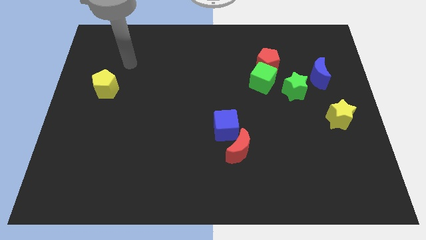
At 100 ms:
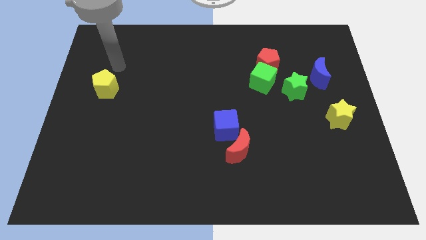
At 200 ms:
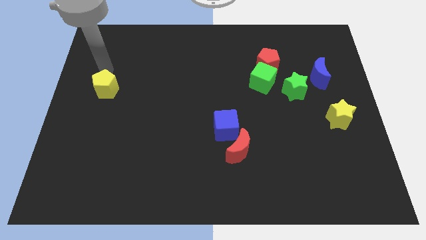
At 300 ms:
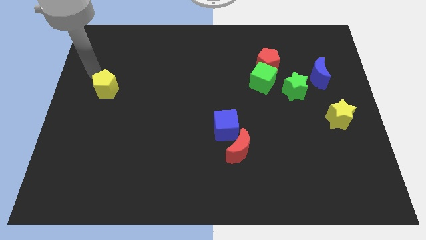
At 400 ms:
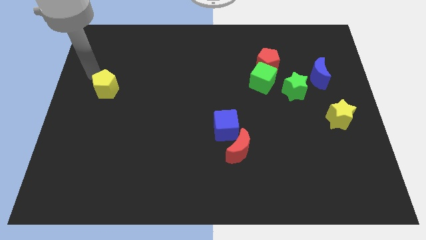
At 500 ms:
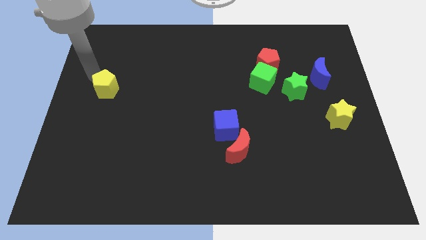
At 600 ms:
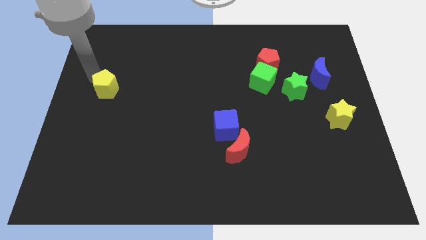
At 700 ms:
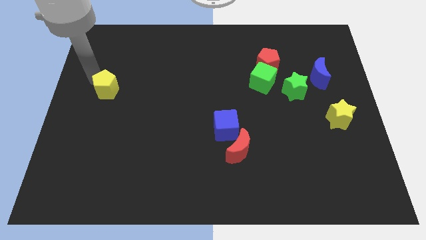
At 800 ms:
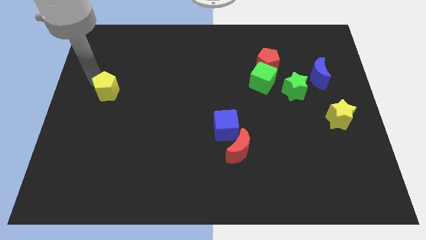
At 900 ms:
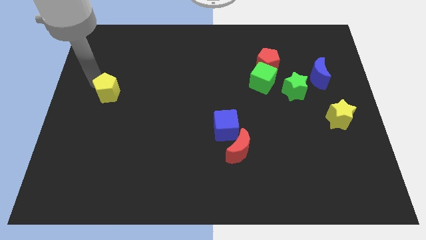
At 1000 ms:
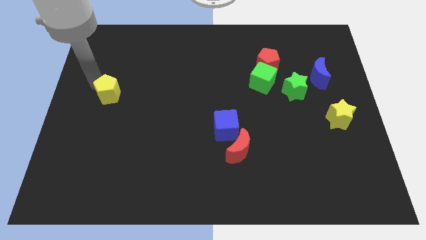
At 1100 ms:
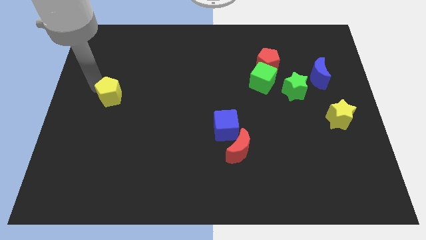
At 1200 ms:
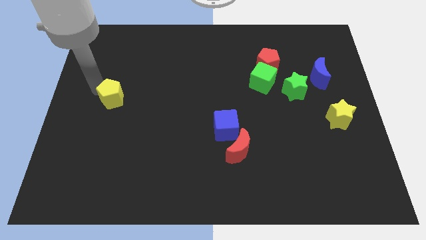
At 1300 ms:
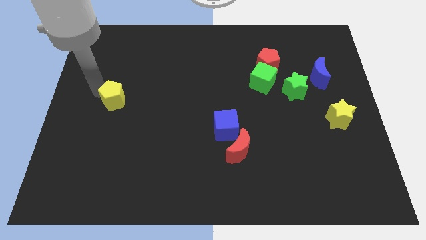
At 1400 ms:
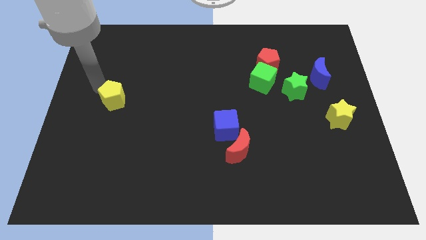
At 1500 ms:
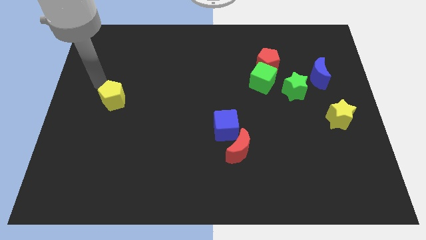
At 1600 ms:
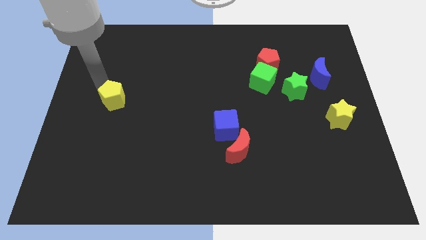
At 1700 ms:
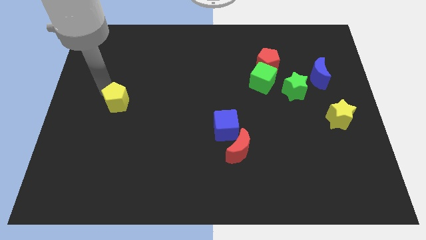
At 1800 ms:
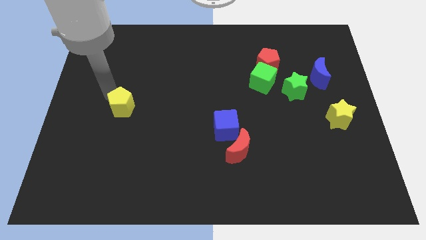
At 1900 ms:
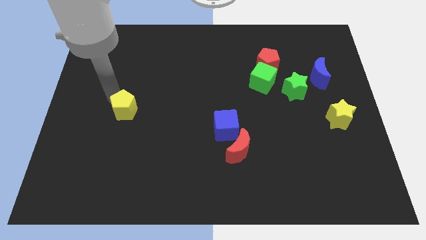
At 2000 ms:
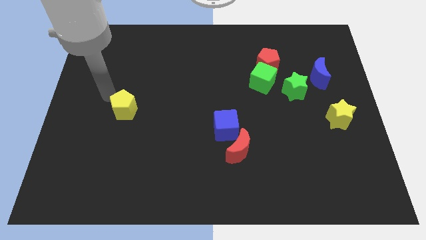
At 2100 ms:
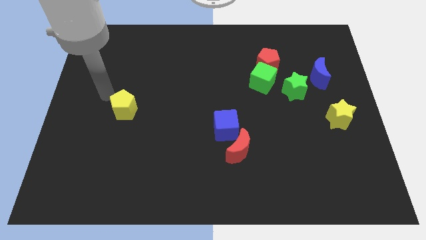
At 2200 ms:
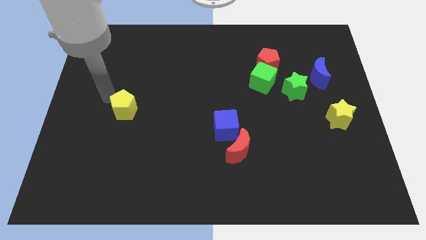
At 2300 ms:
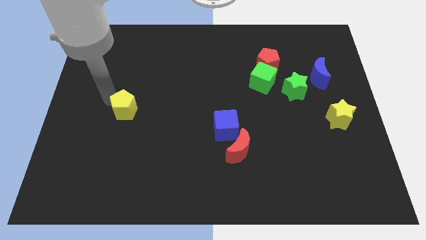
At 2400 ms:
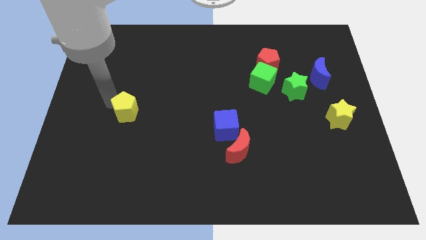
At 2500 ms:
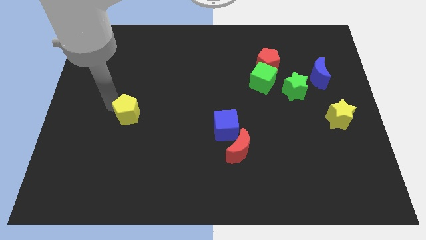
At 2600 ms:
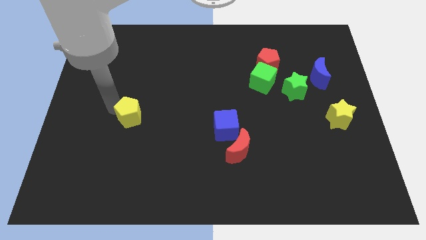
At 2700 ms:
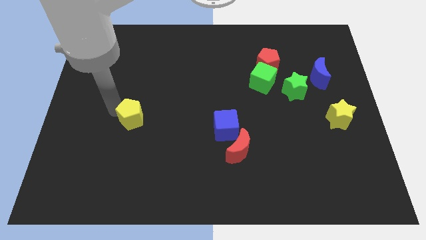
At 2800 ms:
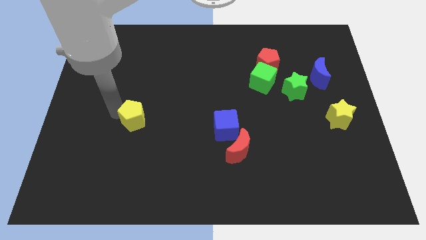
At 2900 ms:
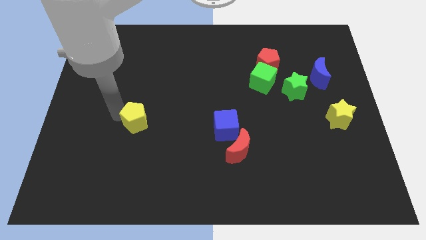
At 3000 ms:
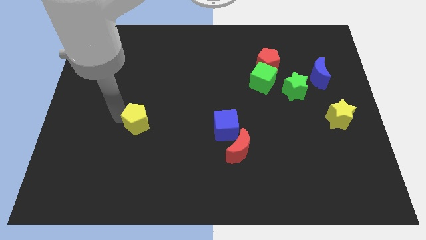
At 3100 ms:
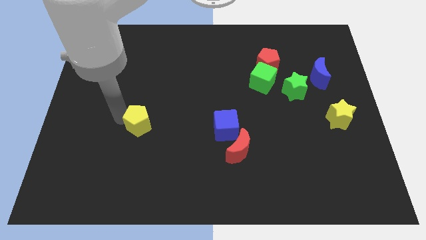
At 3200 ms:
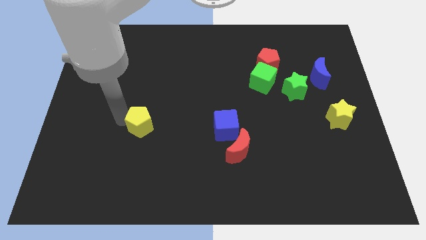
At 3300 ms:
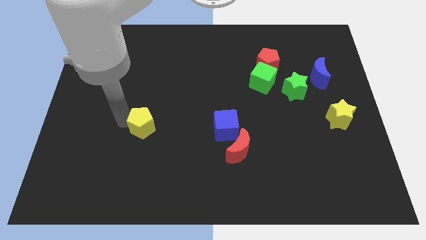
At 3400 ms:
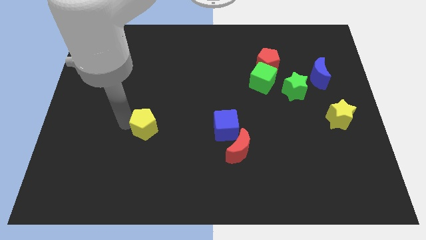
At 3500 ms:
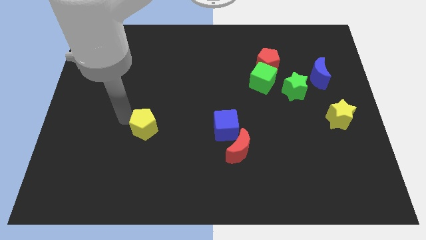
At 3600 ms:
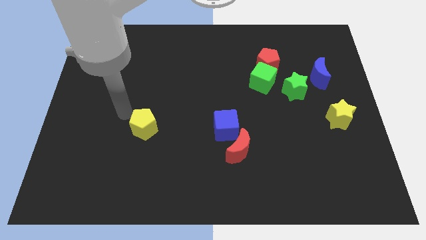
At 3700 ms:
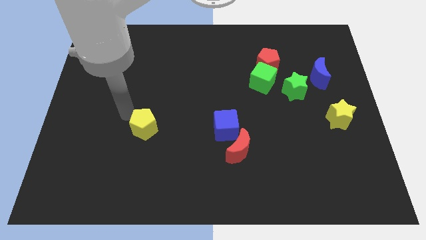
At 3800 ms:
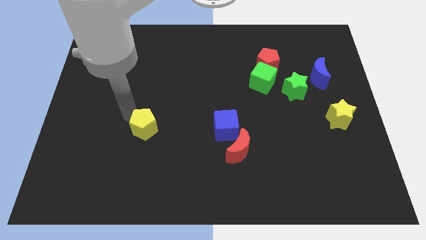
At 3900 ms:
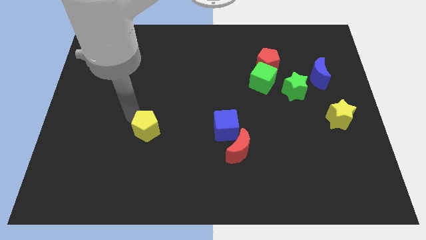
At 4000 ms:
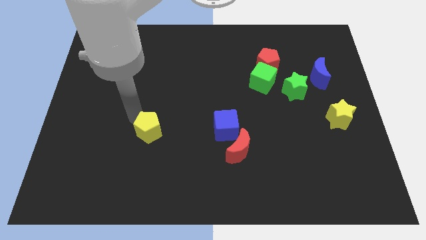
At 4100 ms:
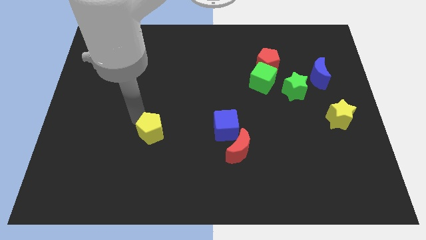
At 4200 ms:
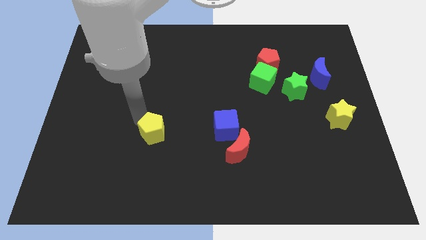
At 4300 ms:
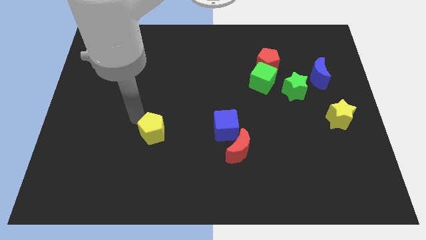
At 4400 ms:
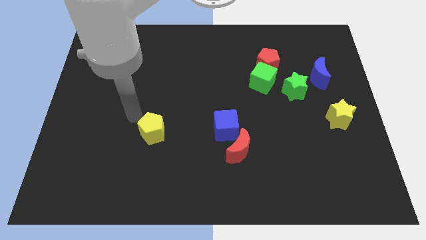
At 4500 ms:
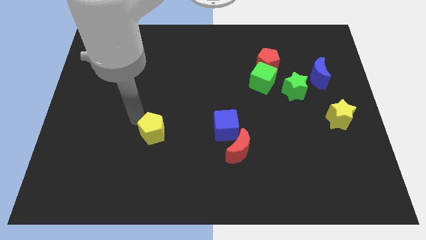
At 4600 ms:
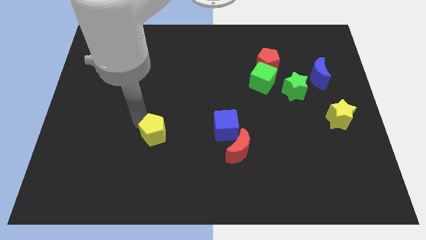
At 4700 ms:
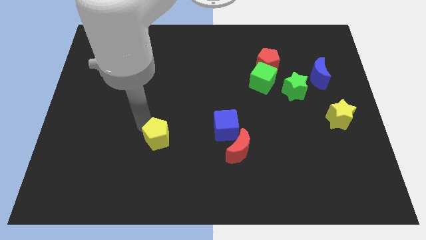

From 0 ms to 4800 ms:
push the yellow pentagon downwards and then right

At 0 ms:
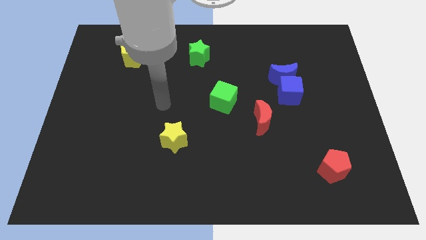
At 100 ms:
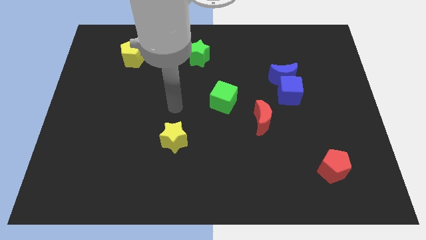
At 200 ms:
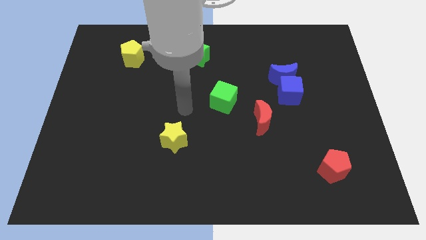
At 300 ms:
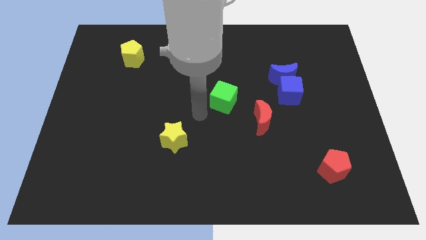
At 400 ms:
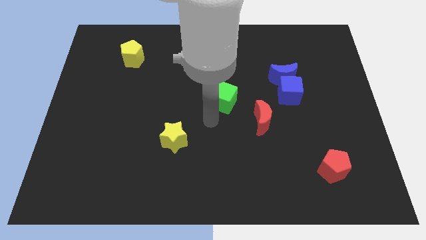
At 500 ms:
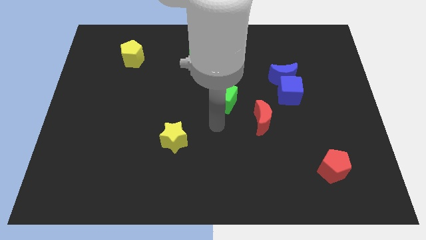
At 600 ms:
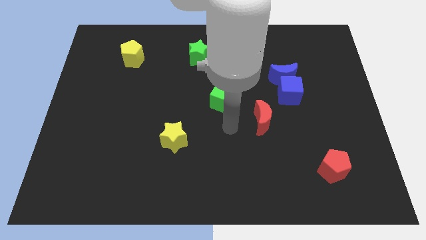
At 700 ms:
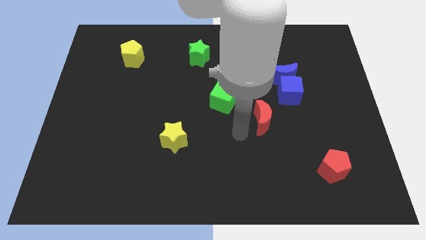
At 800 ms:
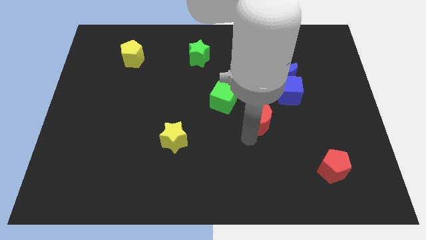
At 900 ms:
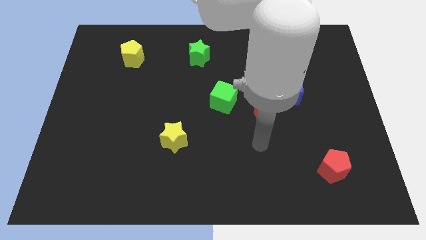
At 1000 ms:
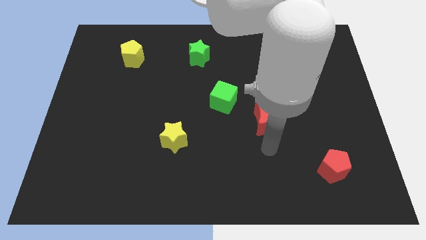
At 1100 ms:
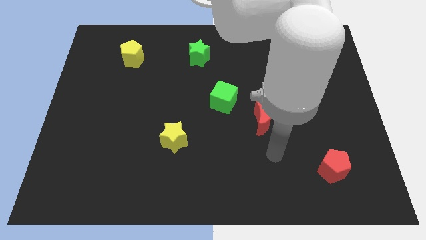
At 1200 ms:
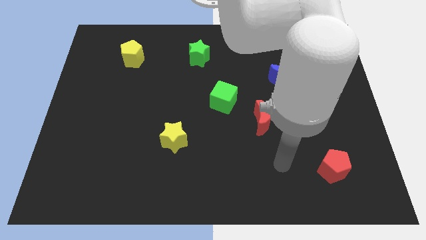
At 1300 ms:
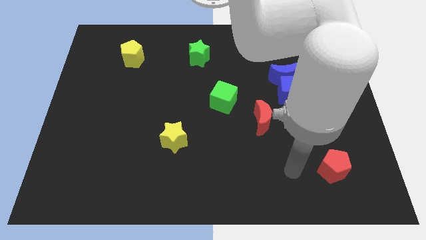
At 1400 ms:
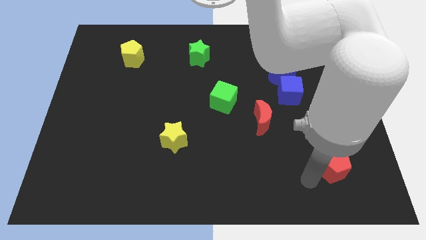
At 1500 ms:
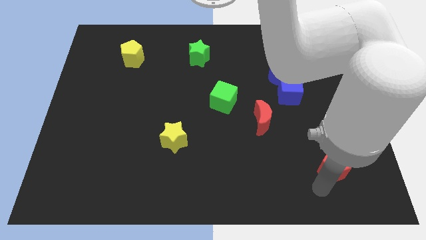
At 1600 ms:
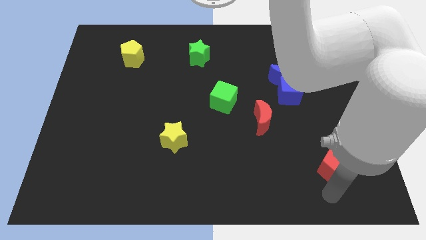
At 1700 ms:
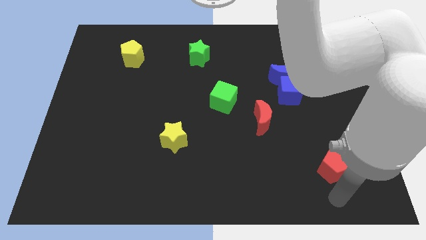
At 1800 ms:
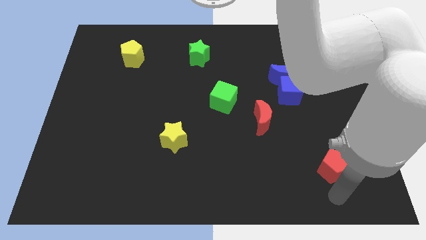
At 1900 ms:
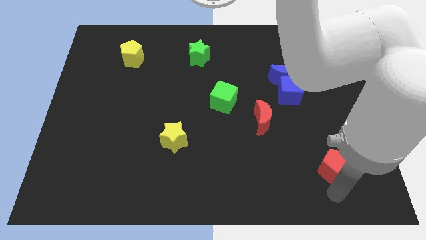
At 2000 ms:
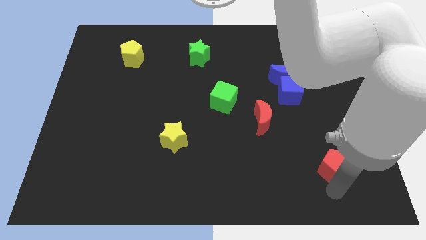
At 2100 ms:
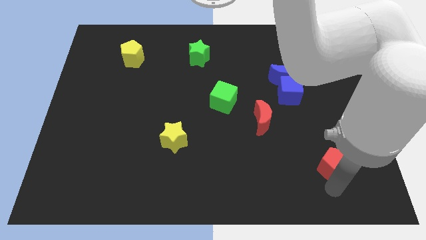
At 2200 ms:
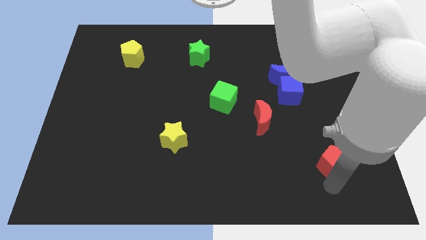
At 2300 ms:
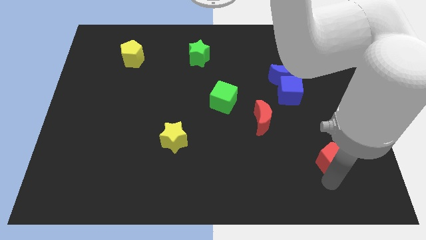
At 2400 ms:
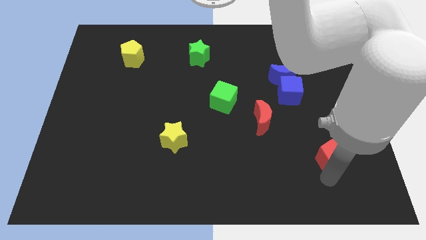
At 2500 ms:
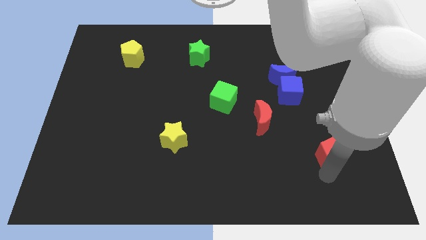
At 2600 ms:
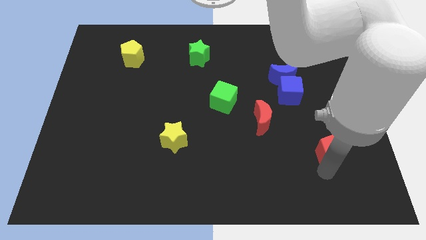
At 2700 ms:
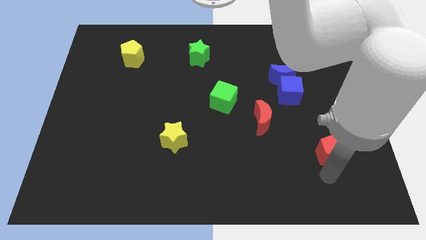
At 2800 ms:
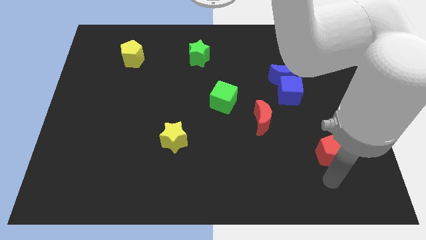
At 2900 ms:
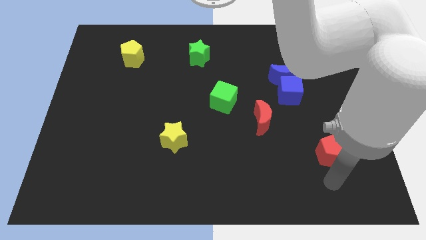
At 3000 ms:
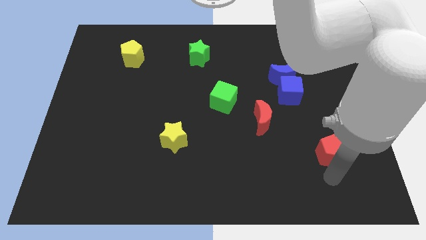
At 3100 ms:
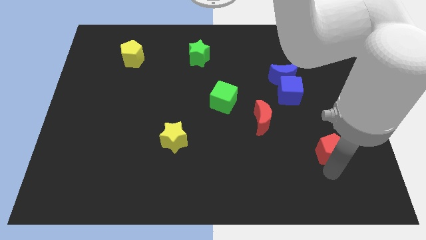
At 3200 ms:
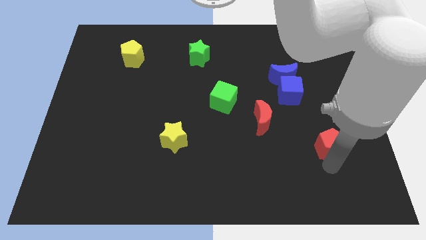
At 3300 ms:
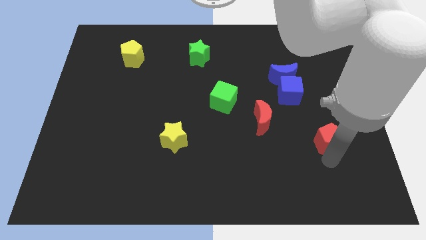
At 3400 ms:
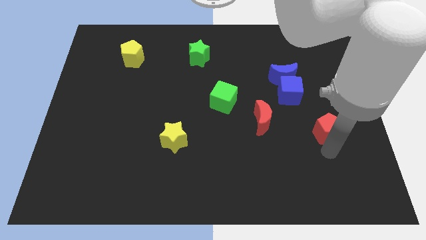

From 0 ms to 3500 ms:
slide the red pentagon a little upwards
